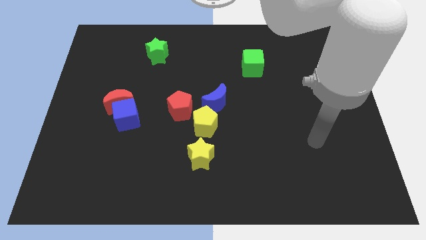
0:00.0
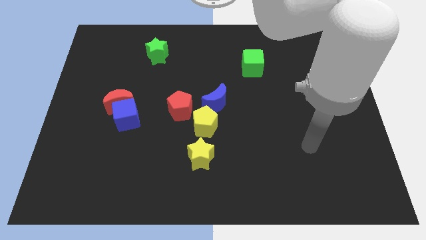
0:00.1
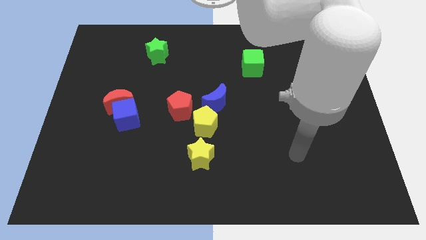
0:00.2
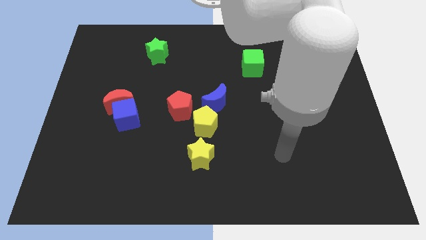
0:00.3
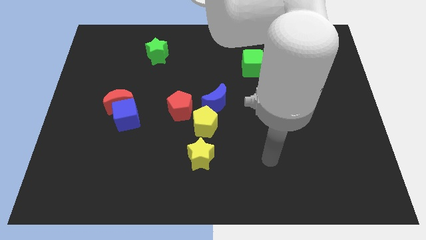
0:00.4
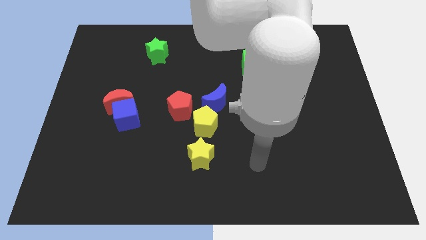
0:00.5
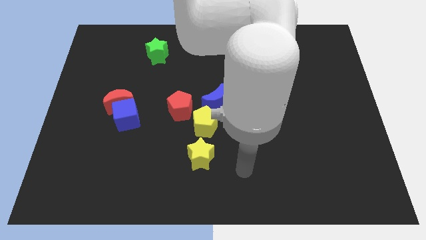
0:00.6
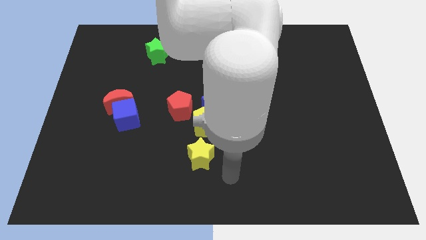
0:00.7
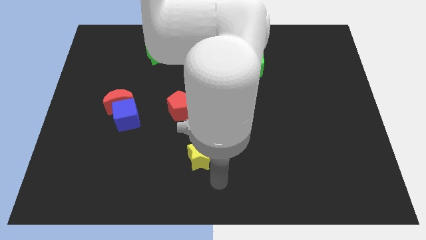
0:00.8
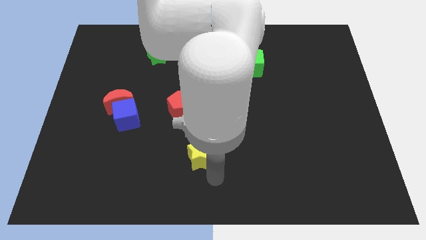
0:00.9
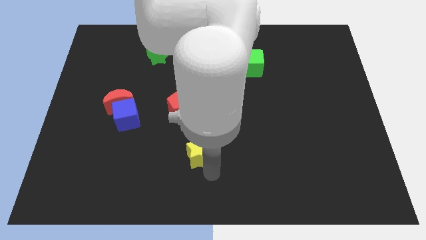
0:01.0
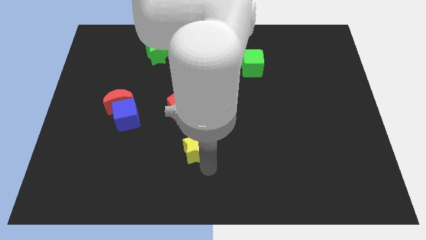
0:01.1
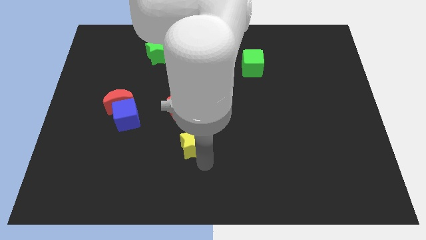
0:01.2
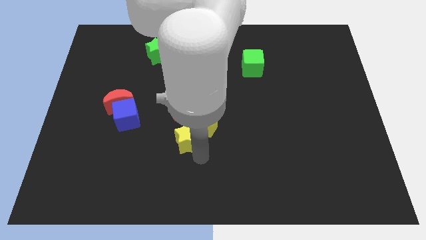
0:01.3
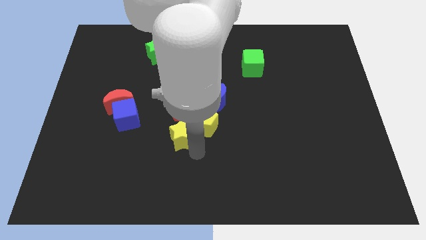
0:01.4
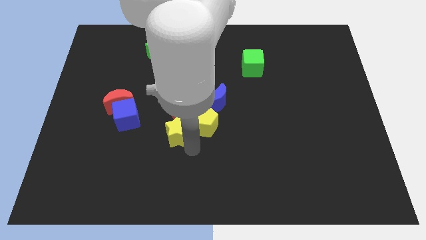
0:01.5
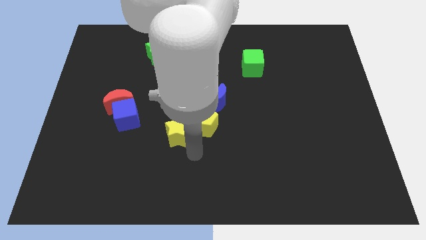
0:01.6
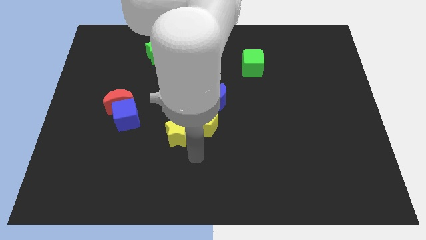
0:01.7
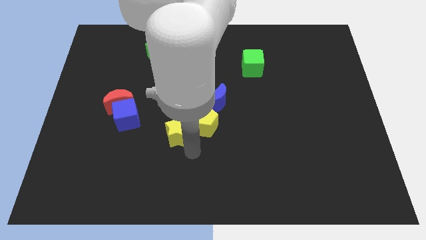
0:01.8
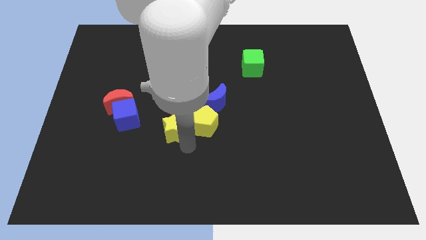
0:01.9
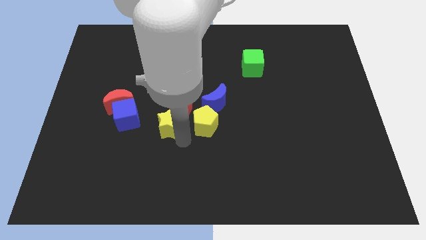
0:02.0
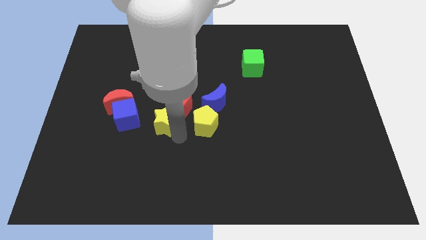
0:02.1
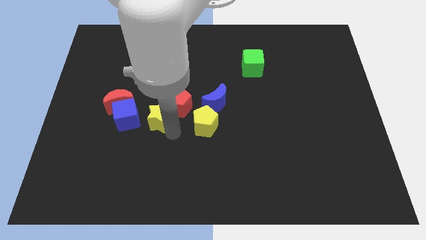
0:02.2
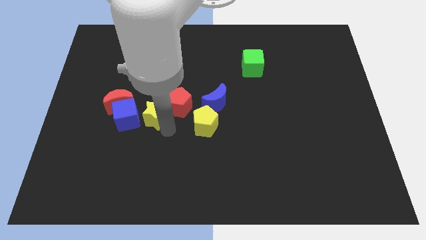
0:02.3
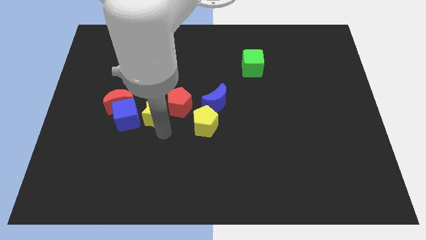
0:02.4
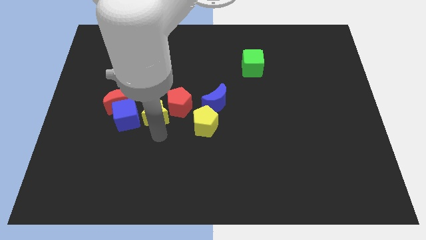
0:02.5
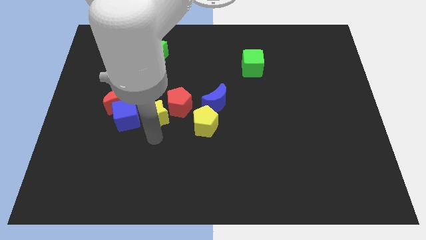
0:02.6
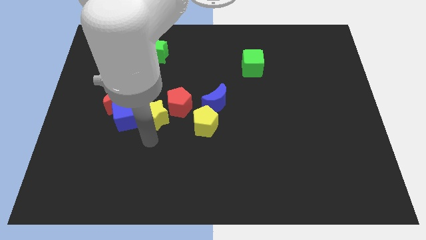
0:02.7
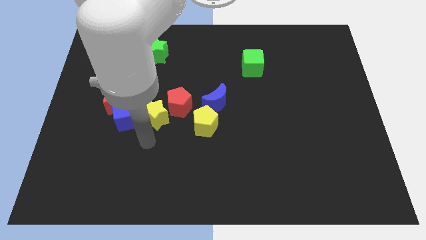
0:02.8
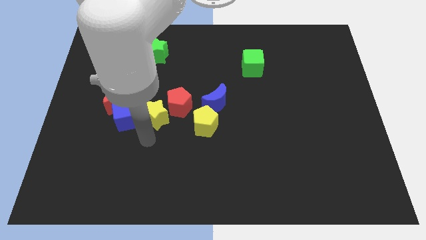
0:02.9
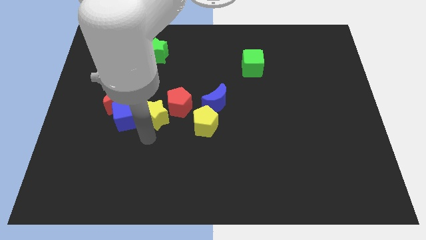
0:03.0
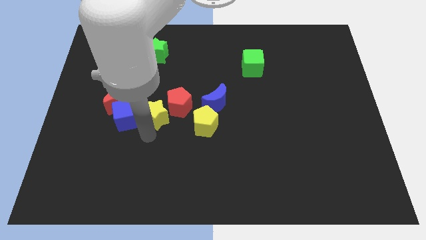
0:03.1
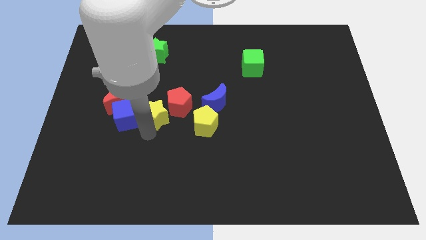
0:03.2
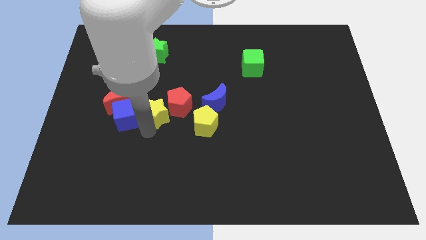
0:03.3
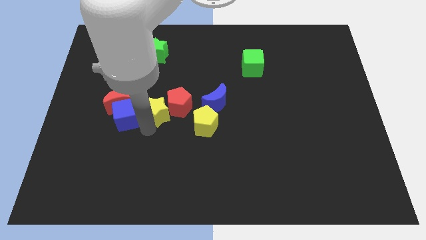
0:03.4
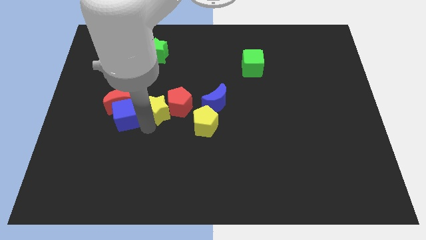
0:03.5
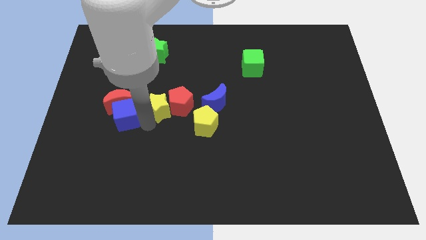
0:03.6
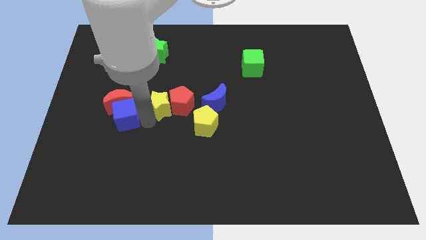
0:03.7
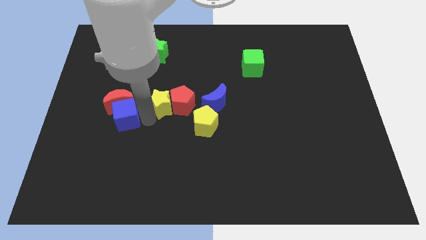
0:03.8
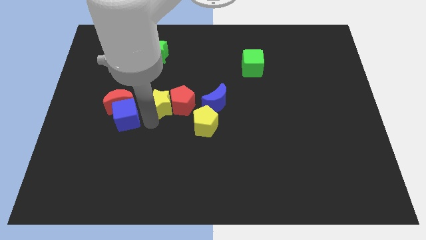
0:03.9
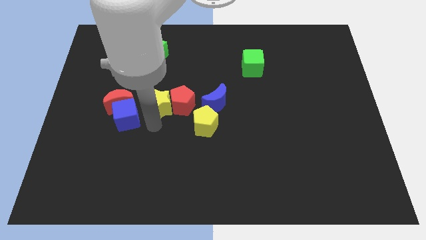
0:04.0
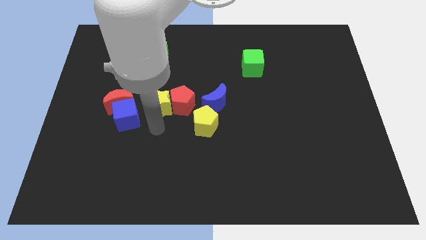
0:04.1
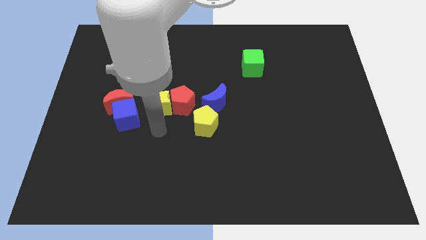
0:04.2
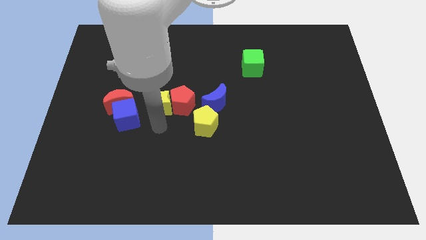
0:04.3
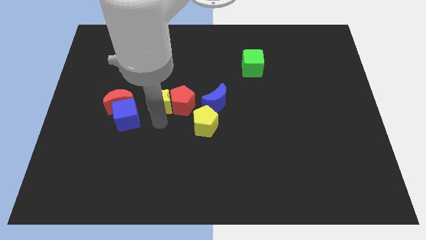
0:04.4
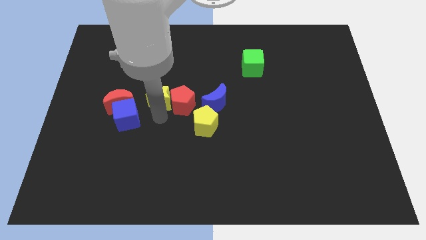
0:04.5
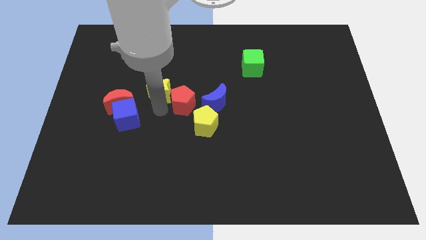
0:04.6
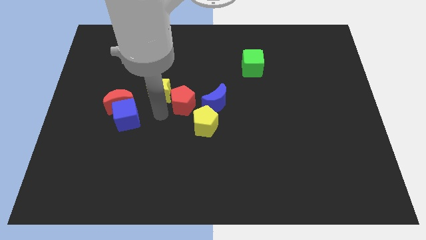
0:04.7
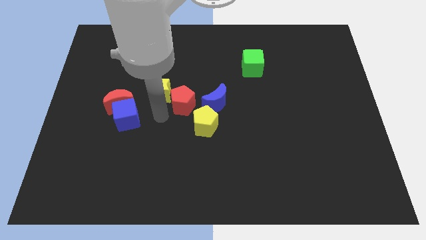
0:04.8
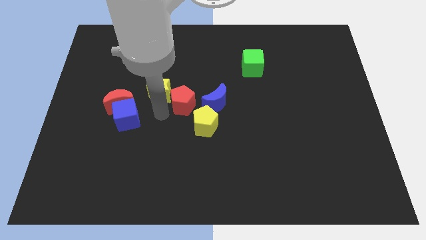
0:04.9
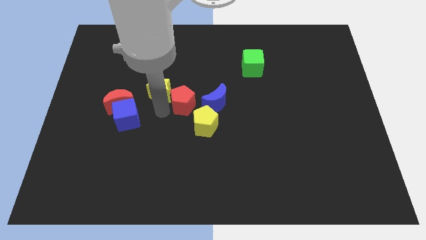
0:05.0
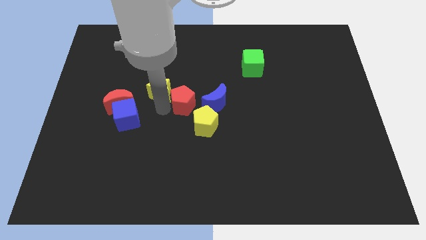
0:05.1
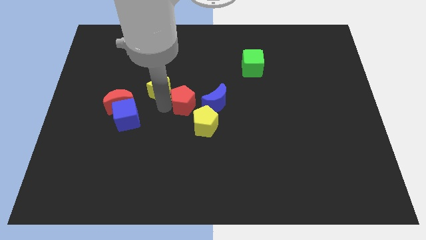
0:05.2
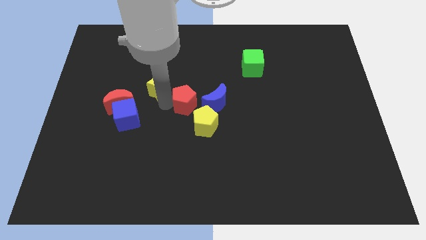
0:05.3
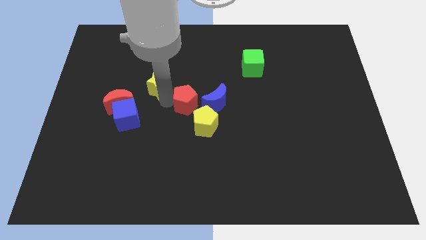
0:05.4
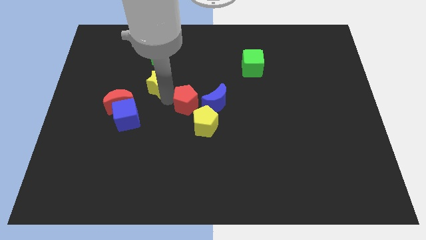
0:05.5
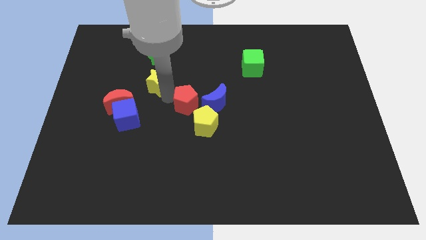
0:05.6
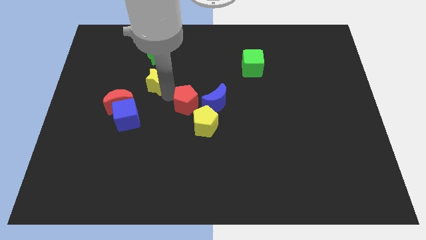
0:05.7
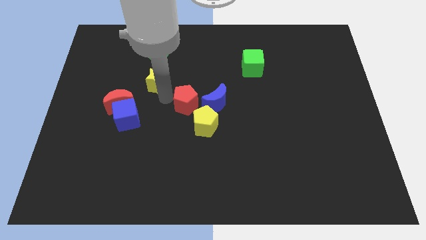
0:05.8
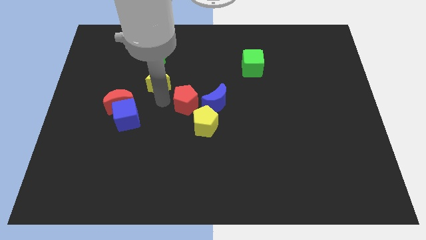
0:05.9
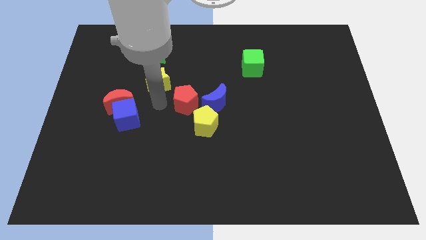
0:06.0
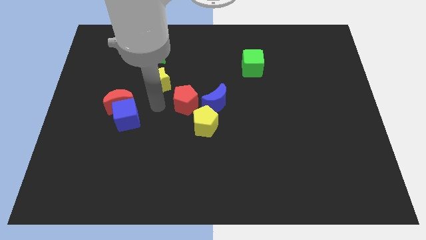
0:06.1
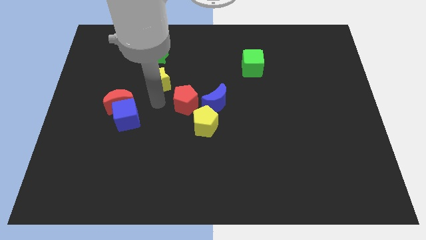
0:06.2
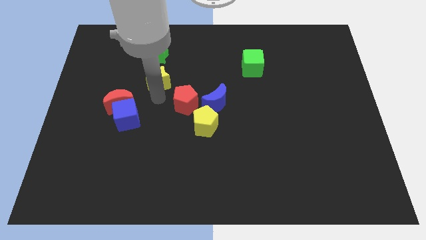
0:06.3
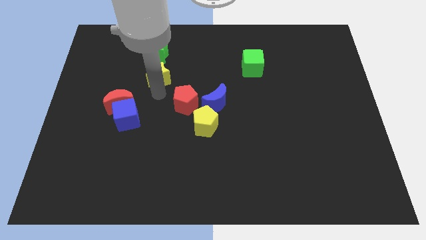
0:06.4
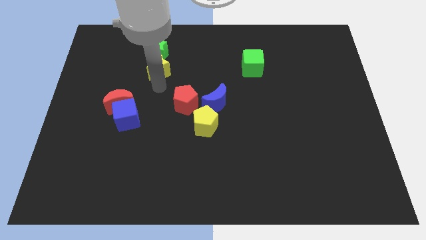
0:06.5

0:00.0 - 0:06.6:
push the yellow star towards the green star
